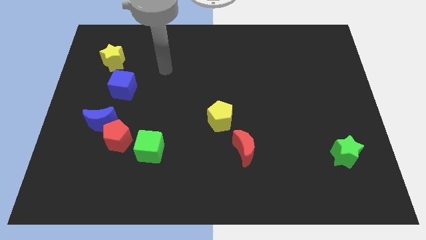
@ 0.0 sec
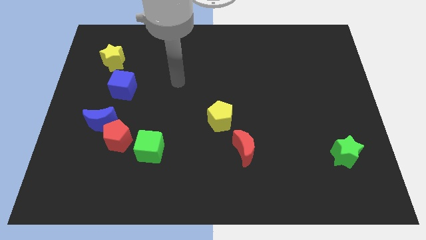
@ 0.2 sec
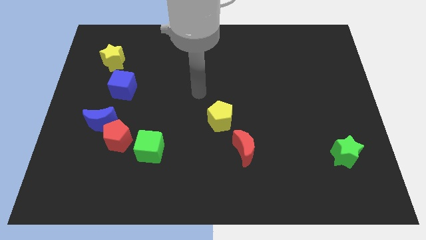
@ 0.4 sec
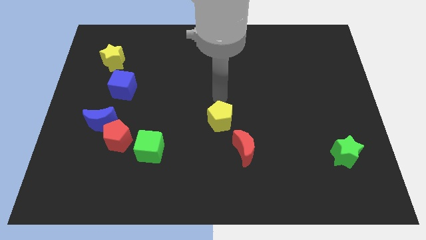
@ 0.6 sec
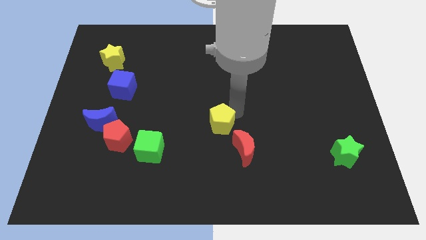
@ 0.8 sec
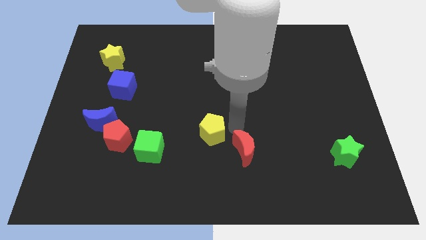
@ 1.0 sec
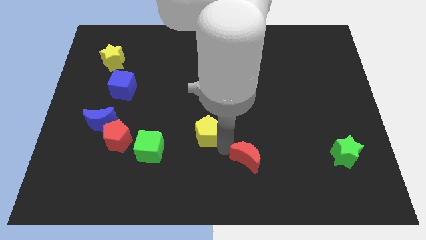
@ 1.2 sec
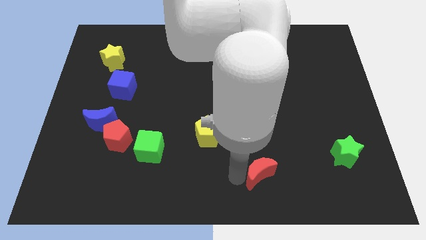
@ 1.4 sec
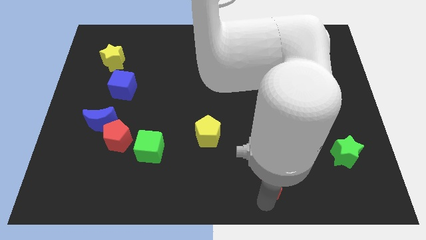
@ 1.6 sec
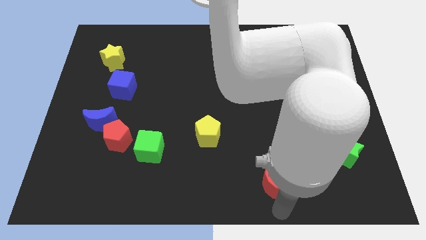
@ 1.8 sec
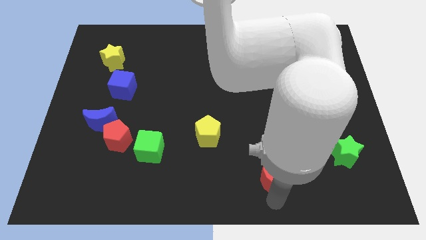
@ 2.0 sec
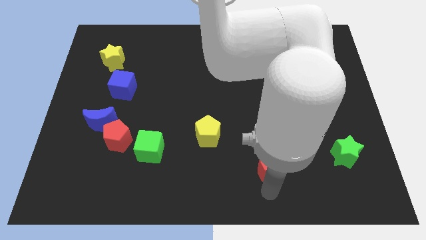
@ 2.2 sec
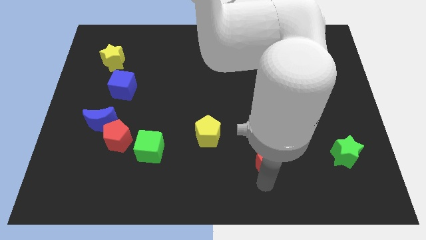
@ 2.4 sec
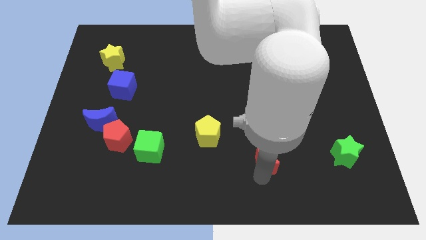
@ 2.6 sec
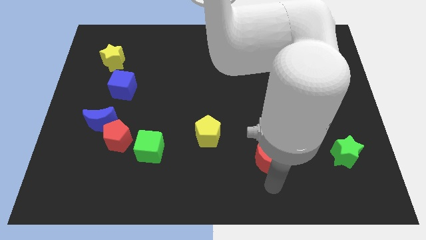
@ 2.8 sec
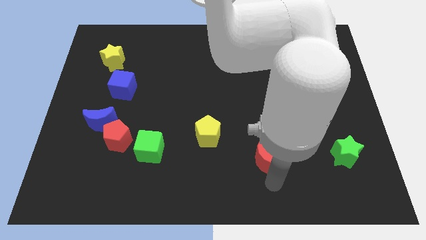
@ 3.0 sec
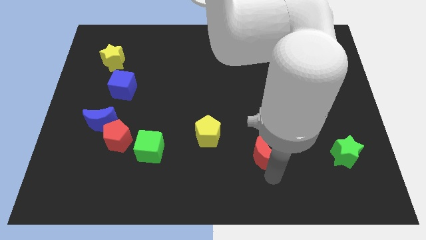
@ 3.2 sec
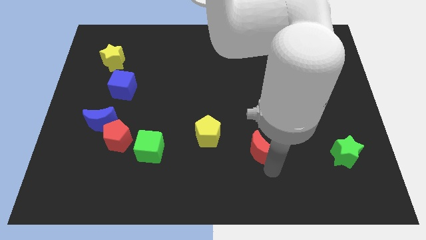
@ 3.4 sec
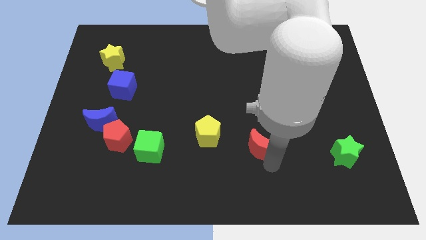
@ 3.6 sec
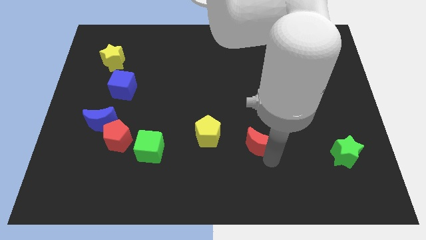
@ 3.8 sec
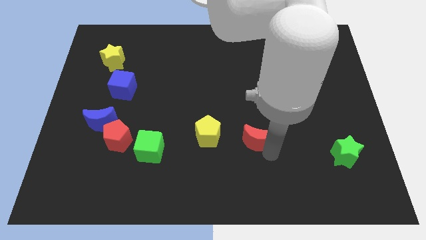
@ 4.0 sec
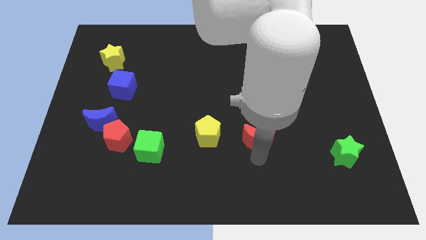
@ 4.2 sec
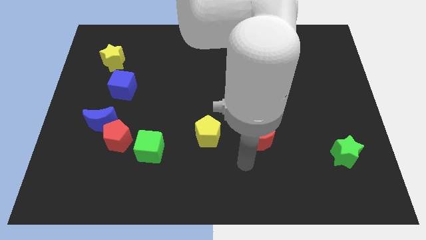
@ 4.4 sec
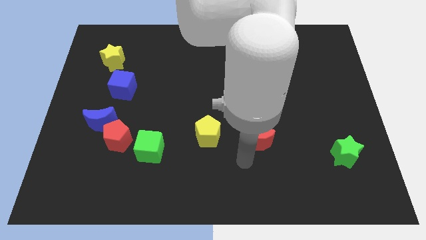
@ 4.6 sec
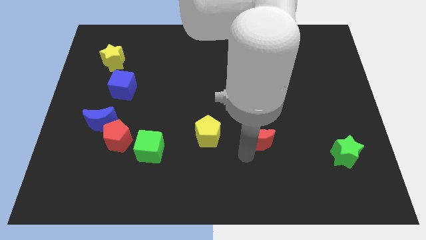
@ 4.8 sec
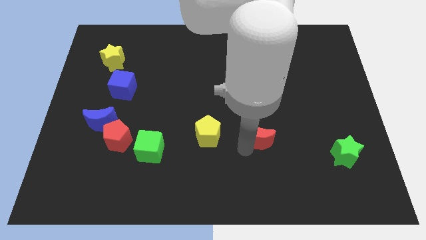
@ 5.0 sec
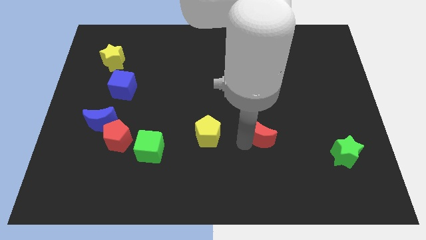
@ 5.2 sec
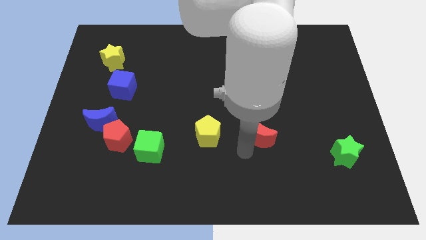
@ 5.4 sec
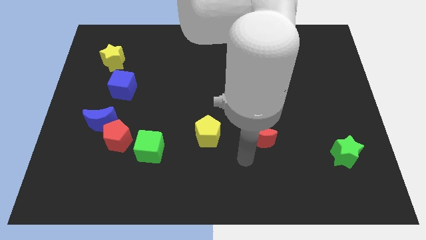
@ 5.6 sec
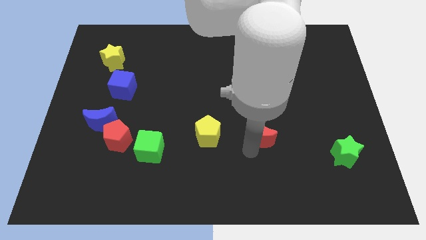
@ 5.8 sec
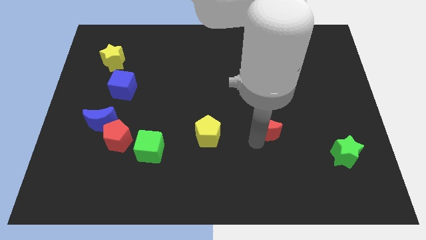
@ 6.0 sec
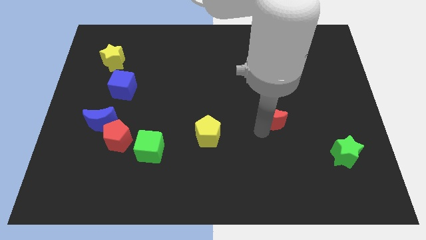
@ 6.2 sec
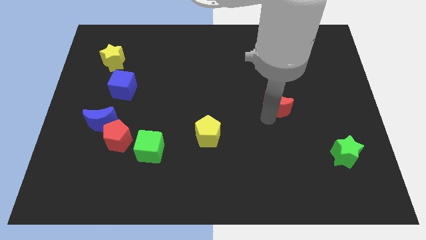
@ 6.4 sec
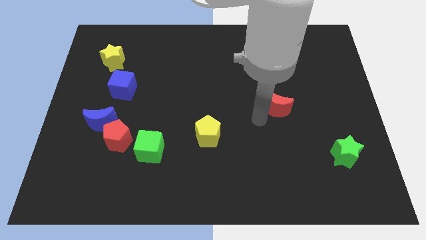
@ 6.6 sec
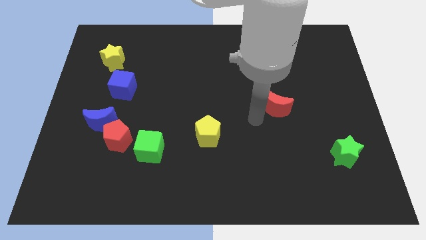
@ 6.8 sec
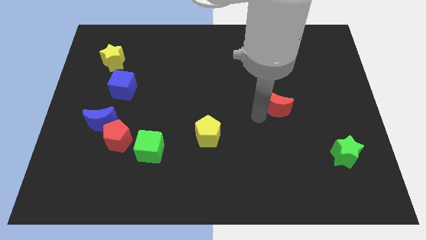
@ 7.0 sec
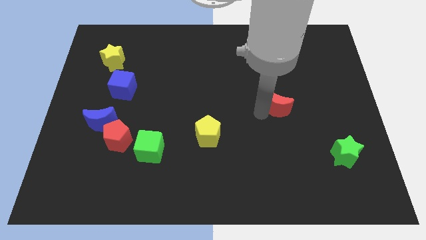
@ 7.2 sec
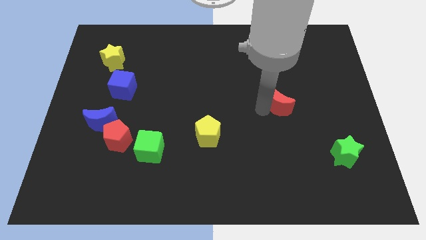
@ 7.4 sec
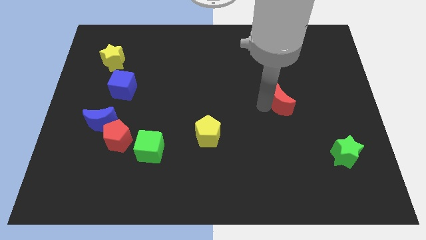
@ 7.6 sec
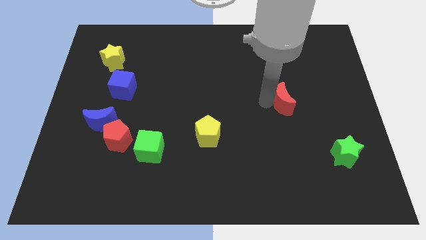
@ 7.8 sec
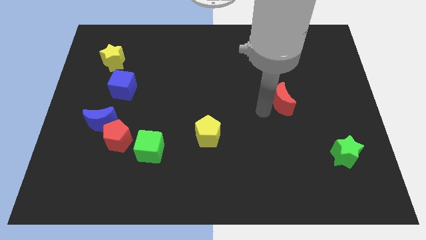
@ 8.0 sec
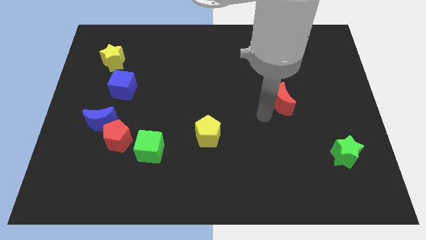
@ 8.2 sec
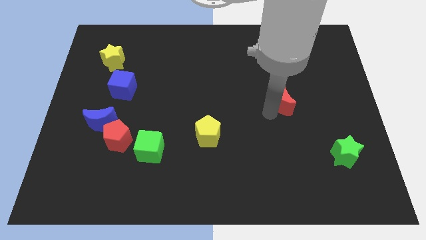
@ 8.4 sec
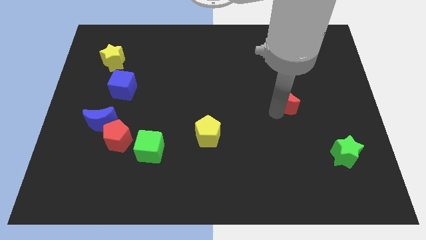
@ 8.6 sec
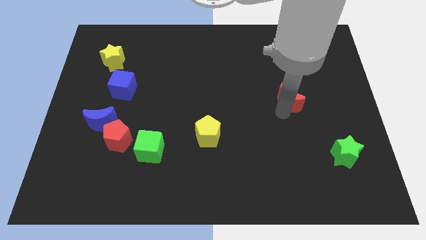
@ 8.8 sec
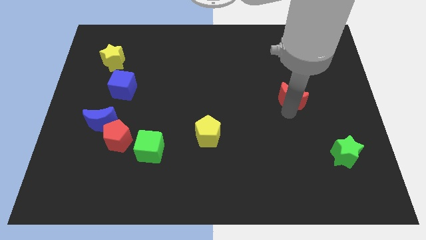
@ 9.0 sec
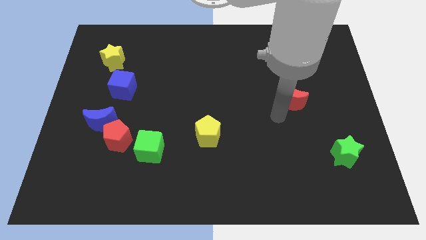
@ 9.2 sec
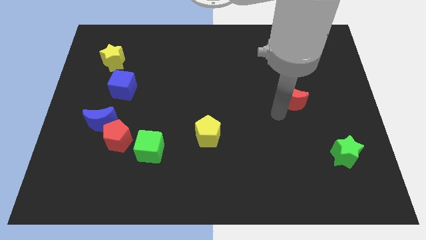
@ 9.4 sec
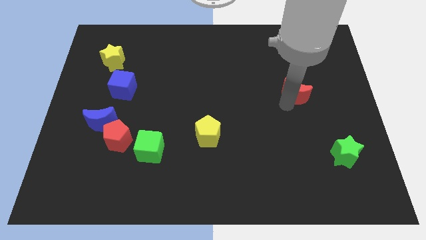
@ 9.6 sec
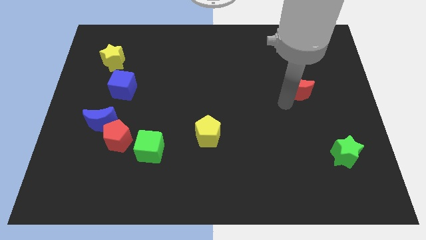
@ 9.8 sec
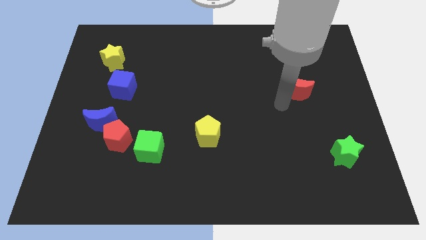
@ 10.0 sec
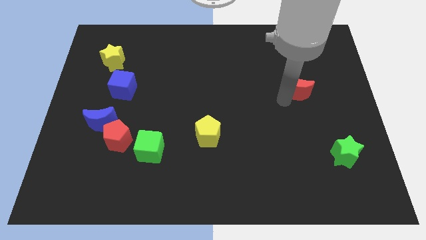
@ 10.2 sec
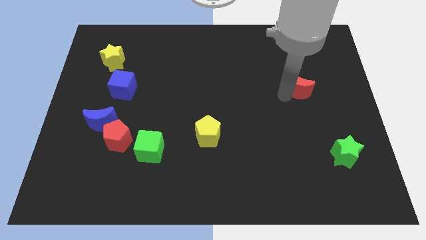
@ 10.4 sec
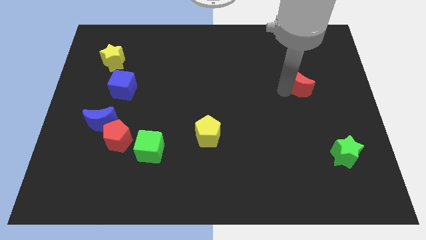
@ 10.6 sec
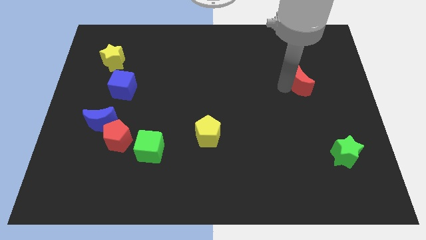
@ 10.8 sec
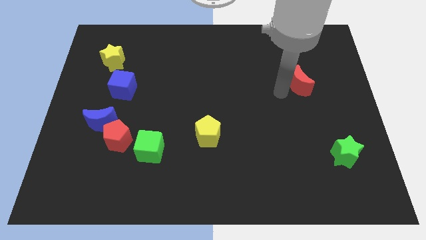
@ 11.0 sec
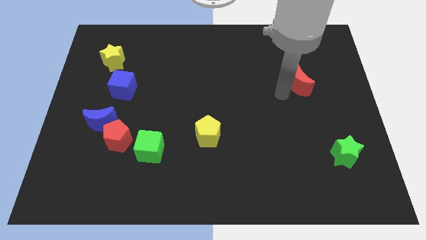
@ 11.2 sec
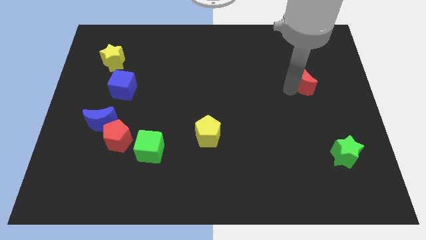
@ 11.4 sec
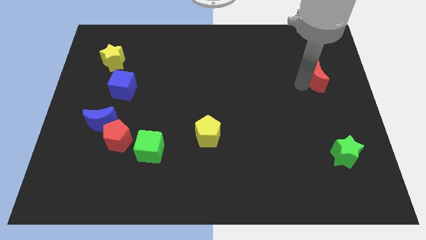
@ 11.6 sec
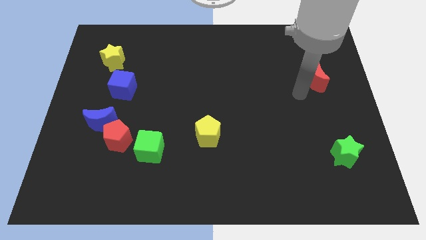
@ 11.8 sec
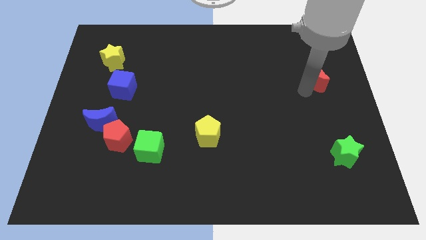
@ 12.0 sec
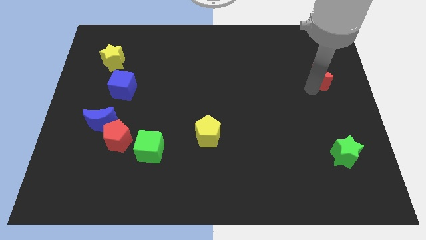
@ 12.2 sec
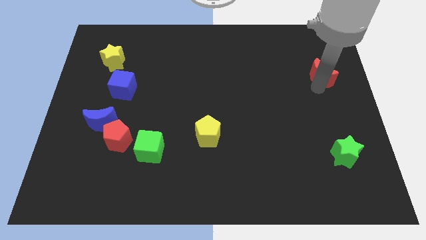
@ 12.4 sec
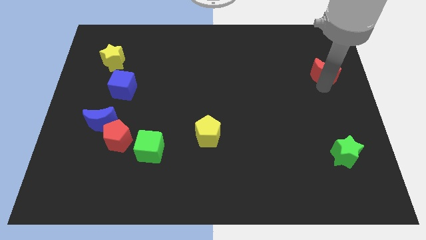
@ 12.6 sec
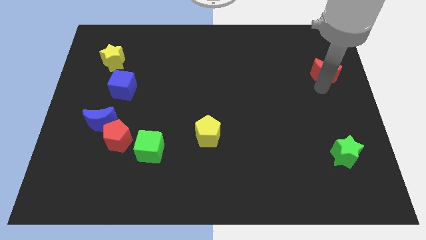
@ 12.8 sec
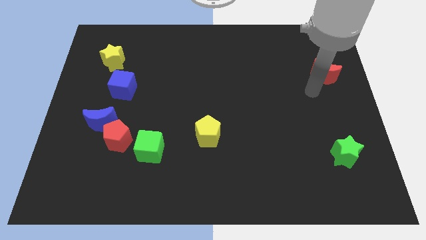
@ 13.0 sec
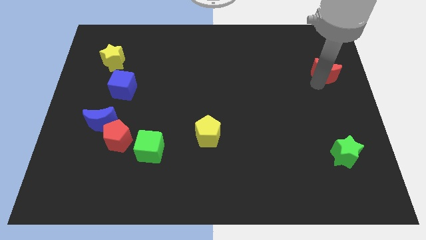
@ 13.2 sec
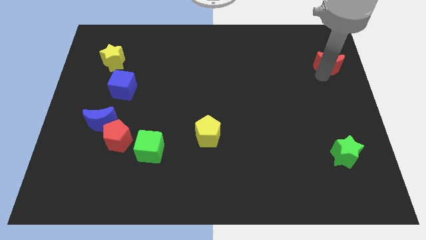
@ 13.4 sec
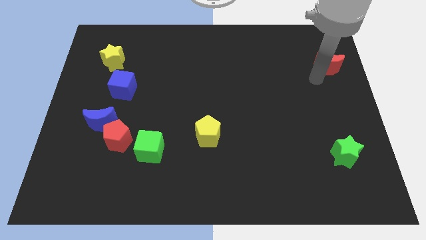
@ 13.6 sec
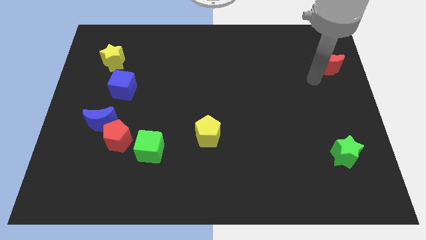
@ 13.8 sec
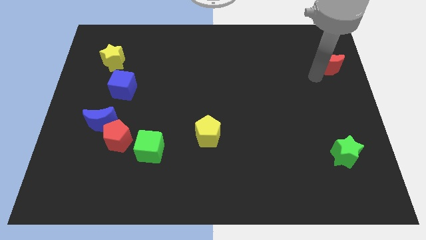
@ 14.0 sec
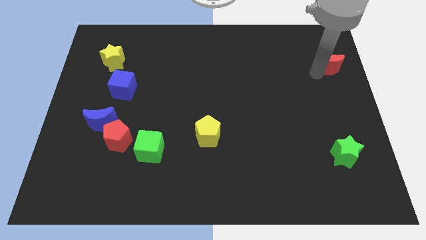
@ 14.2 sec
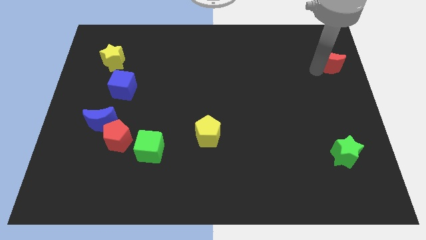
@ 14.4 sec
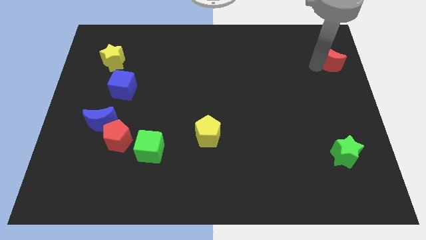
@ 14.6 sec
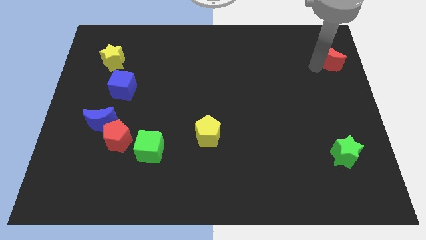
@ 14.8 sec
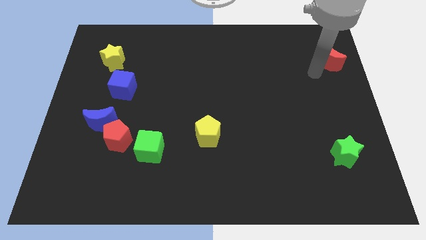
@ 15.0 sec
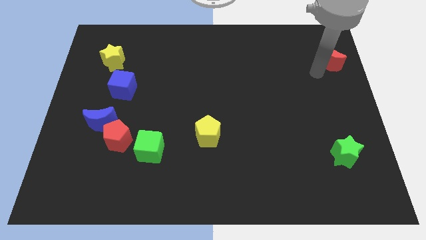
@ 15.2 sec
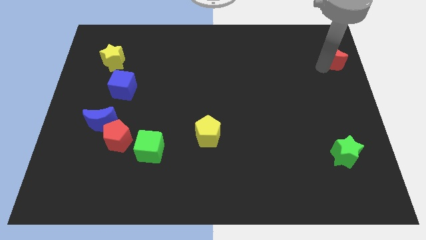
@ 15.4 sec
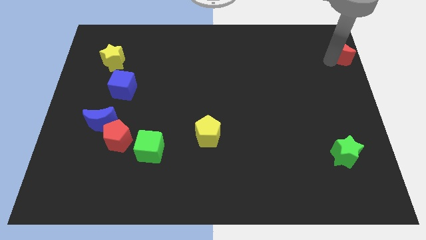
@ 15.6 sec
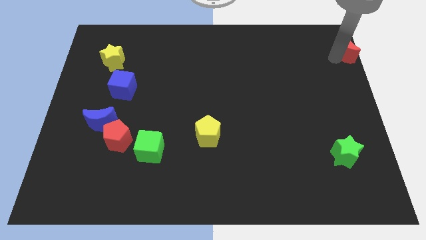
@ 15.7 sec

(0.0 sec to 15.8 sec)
slide the red moon to the top right corner
